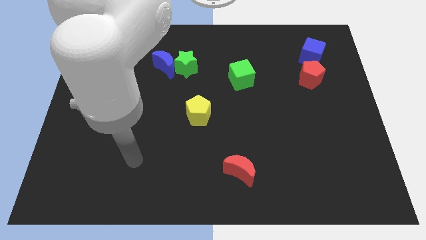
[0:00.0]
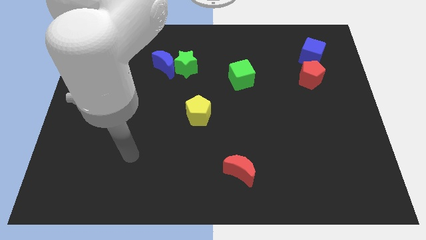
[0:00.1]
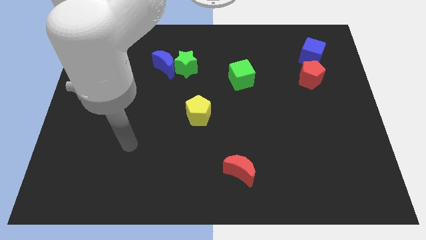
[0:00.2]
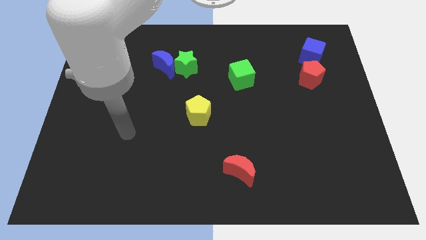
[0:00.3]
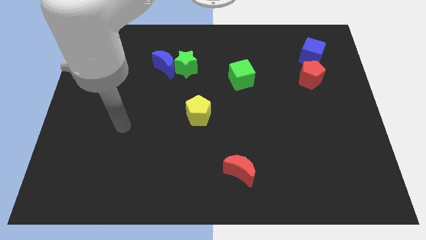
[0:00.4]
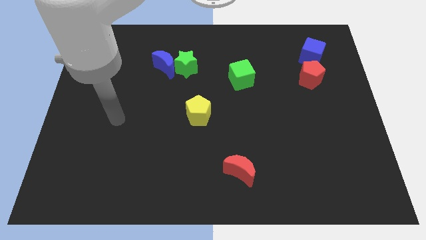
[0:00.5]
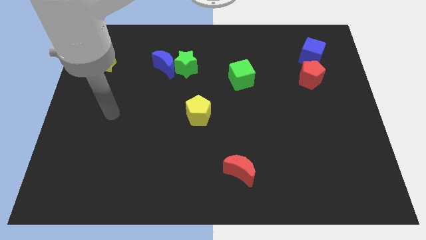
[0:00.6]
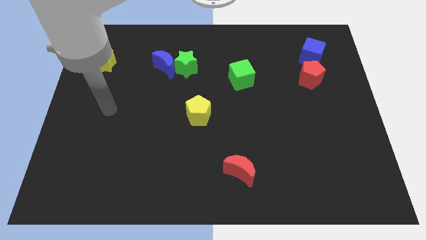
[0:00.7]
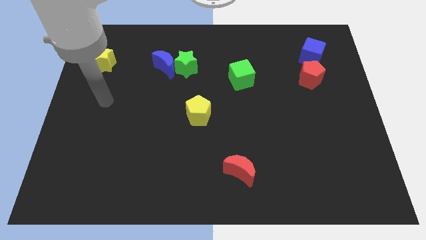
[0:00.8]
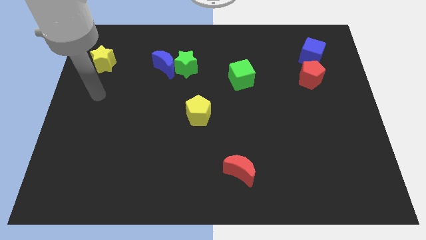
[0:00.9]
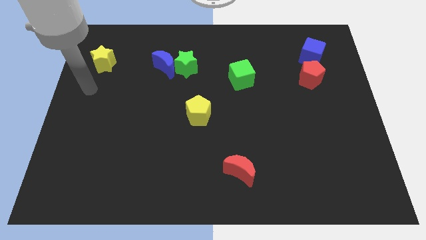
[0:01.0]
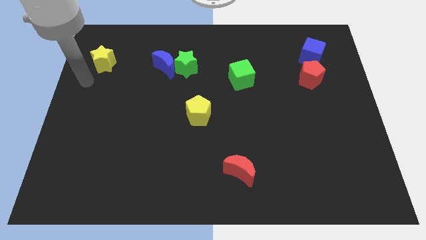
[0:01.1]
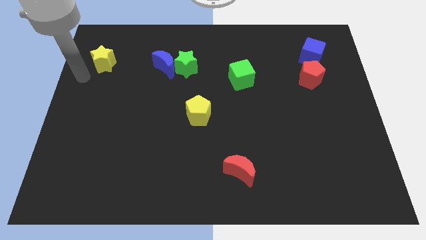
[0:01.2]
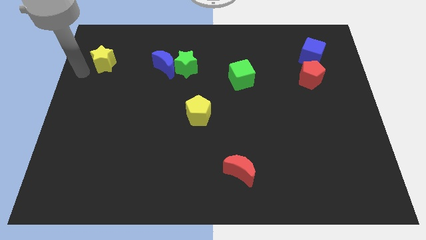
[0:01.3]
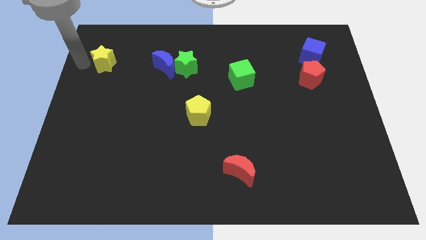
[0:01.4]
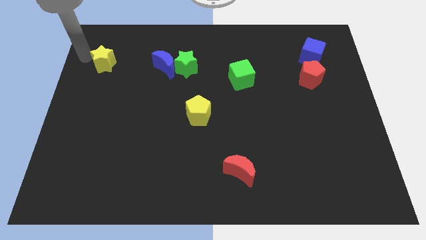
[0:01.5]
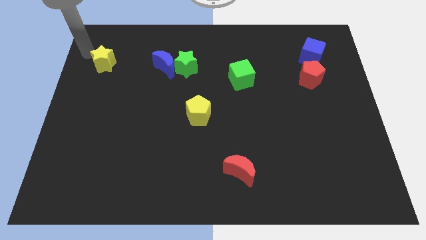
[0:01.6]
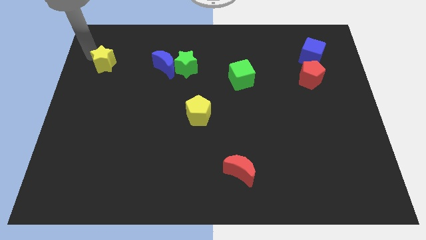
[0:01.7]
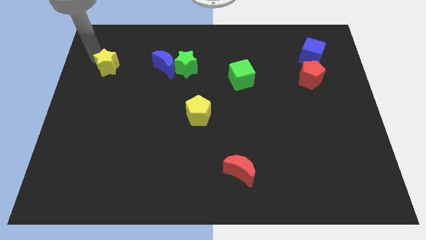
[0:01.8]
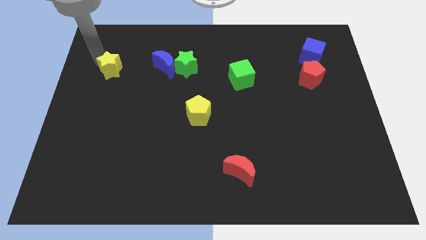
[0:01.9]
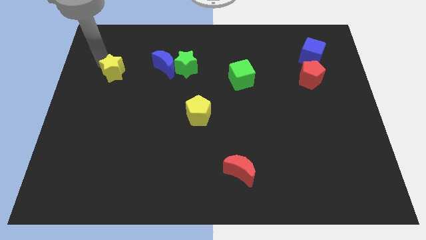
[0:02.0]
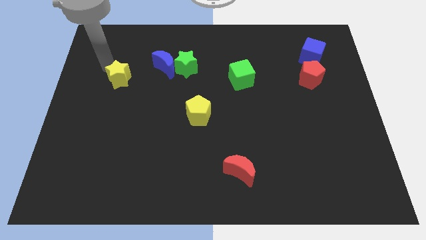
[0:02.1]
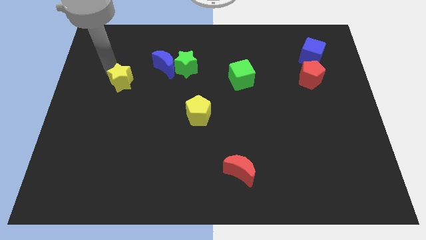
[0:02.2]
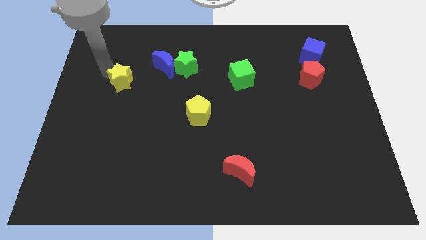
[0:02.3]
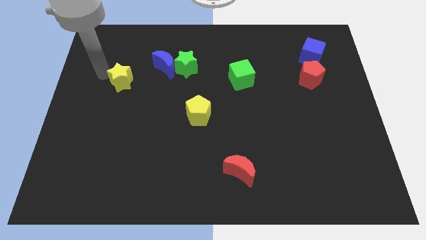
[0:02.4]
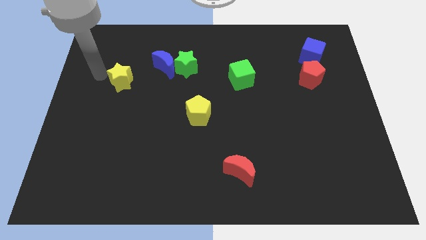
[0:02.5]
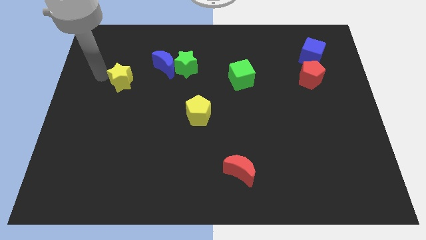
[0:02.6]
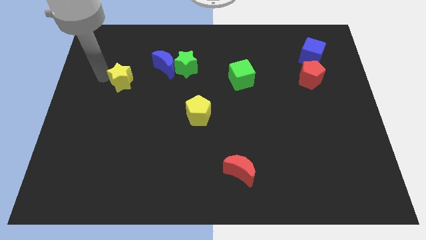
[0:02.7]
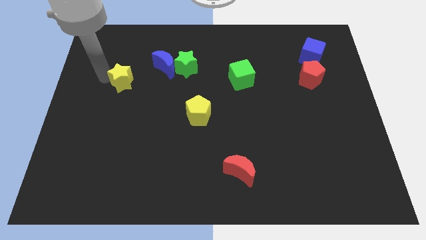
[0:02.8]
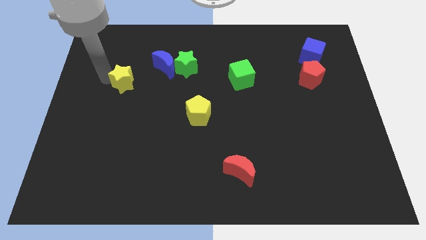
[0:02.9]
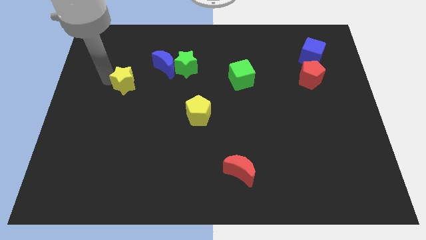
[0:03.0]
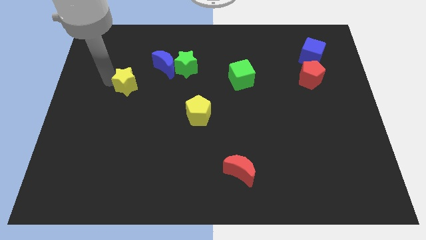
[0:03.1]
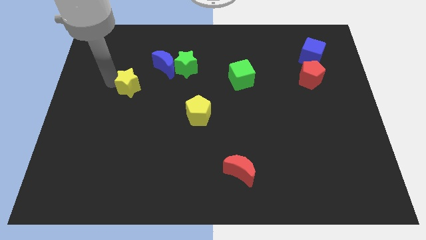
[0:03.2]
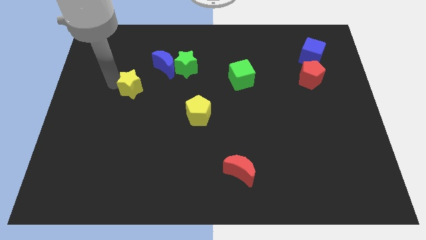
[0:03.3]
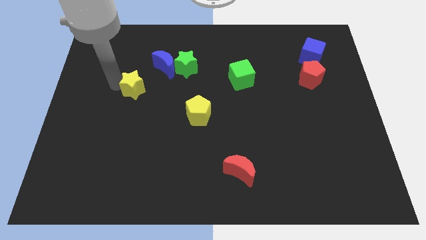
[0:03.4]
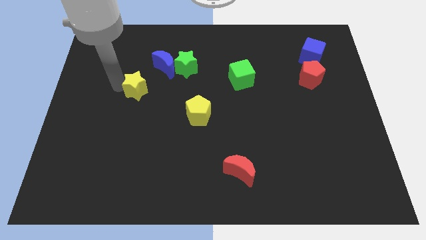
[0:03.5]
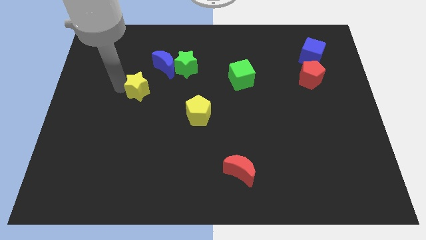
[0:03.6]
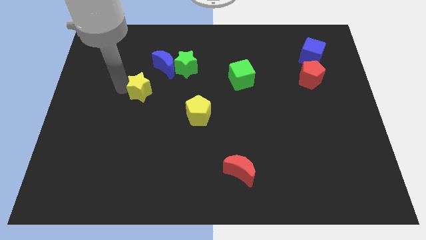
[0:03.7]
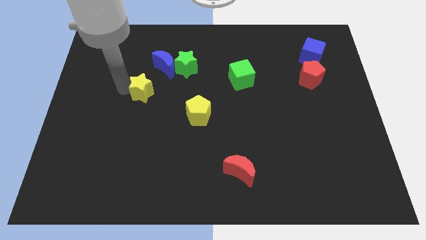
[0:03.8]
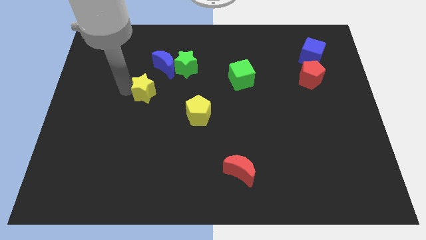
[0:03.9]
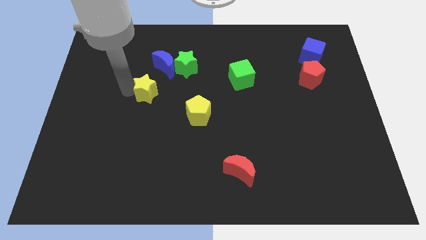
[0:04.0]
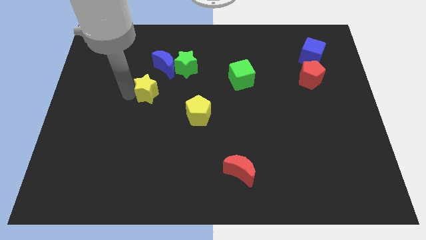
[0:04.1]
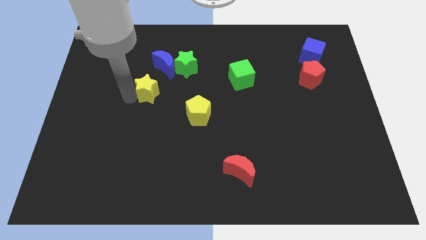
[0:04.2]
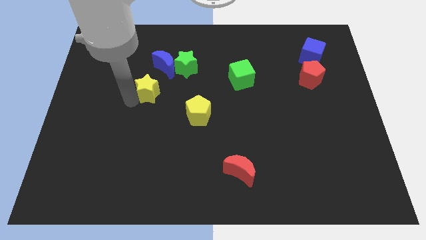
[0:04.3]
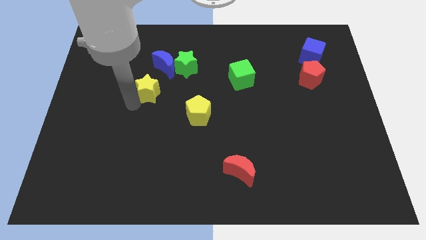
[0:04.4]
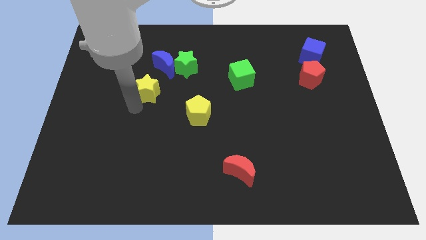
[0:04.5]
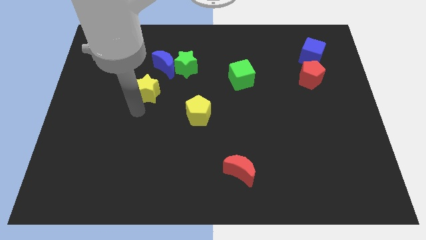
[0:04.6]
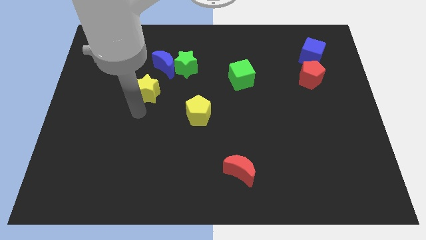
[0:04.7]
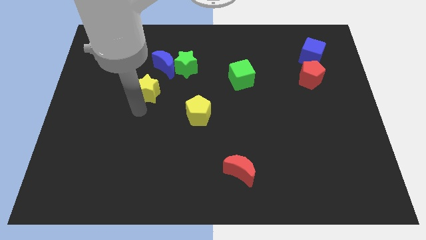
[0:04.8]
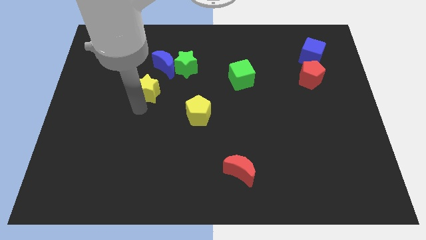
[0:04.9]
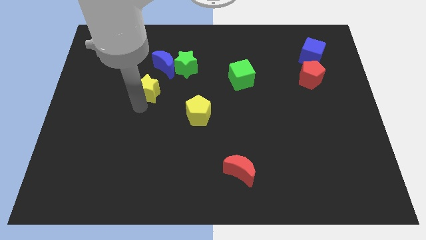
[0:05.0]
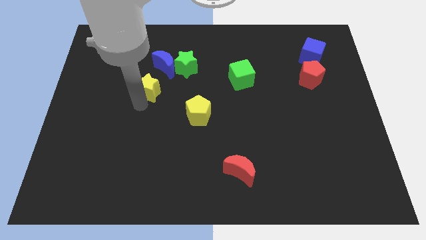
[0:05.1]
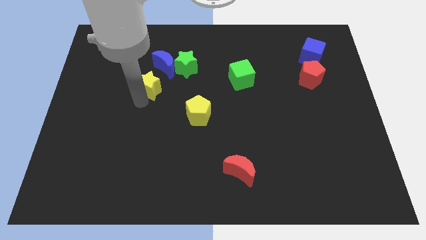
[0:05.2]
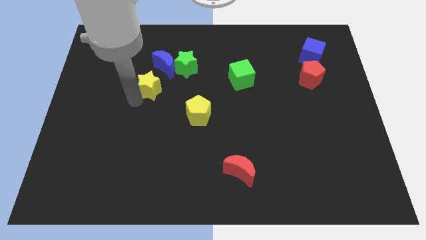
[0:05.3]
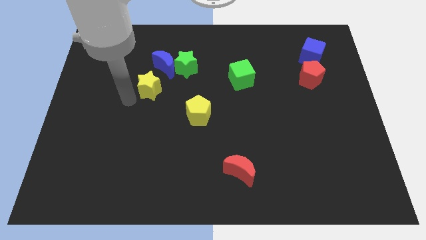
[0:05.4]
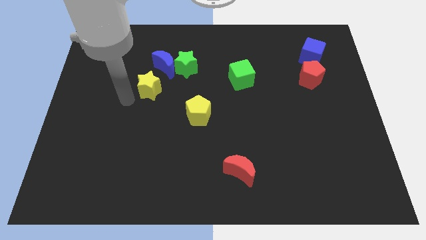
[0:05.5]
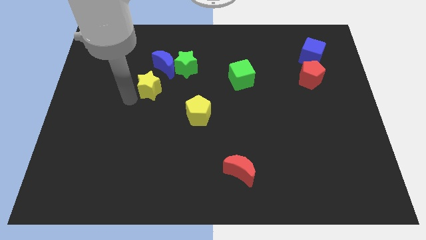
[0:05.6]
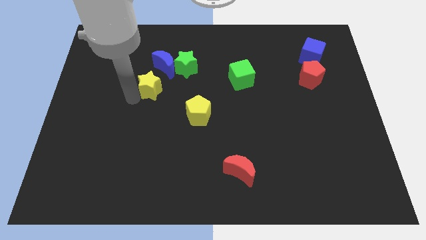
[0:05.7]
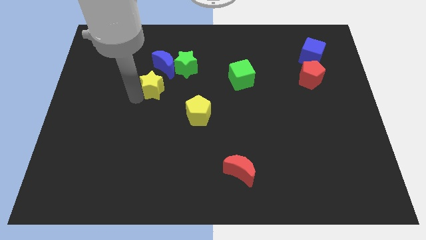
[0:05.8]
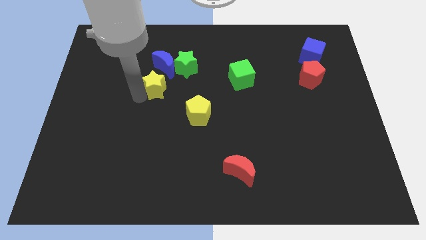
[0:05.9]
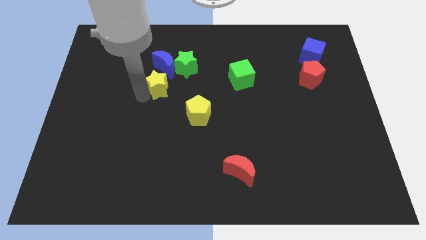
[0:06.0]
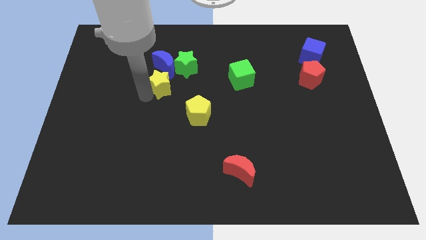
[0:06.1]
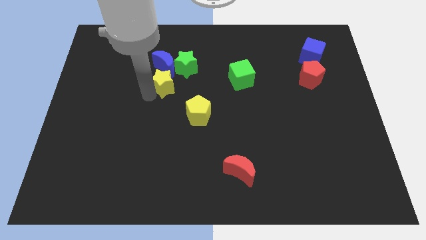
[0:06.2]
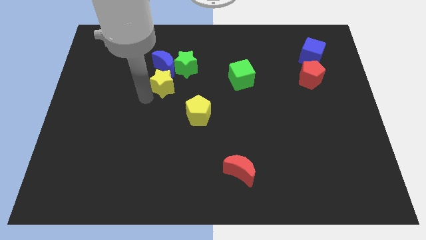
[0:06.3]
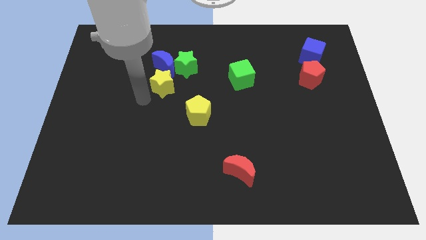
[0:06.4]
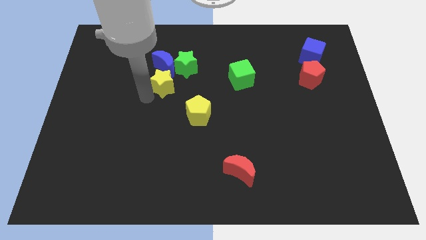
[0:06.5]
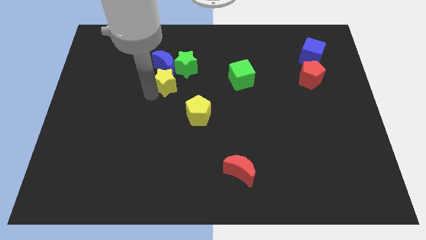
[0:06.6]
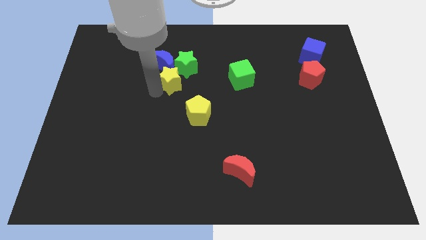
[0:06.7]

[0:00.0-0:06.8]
move the yellow star towards the green star

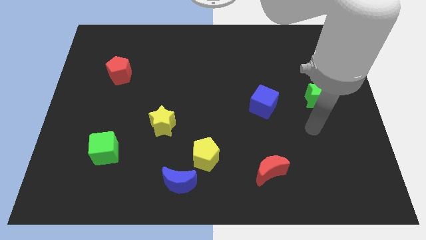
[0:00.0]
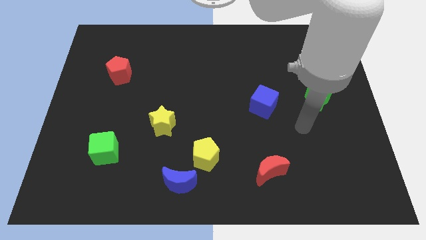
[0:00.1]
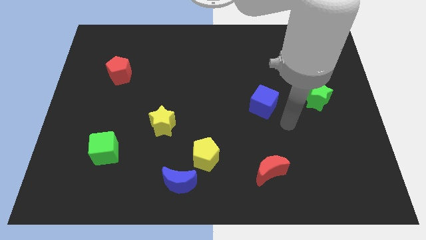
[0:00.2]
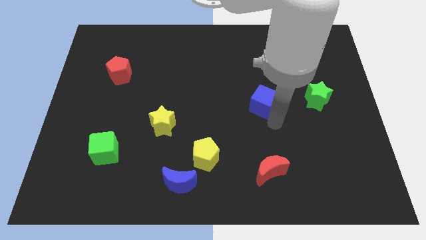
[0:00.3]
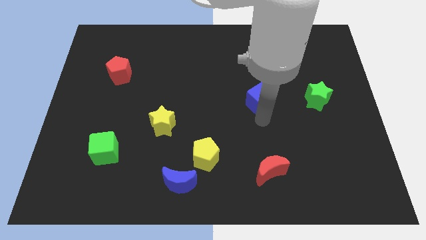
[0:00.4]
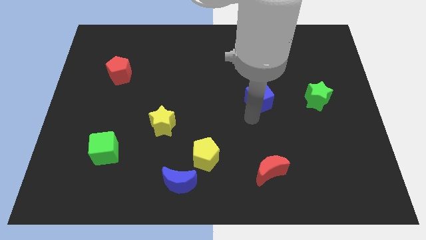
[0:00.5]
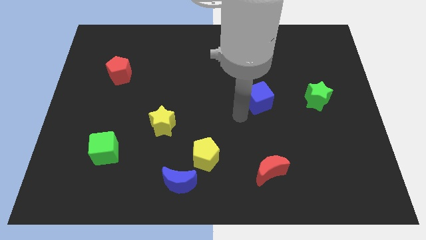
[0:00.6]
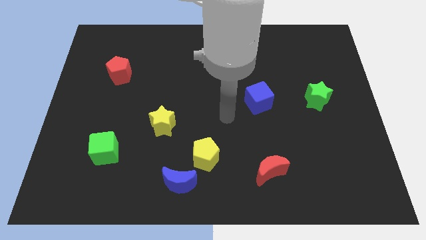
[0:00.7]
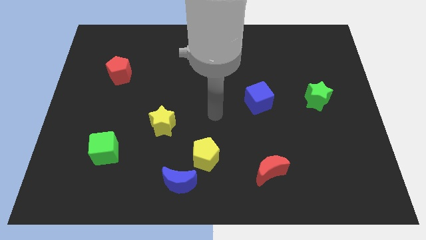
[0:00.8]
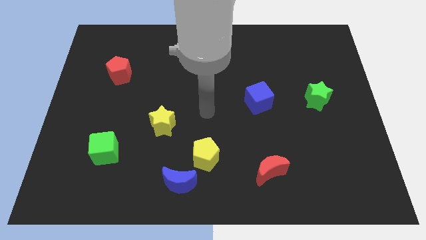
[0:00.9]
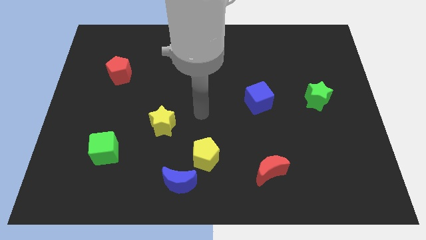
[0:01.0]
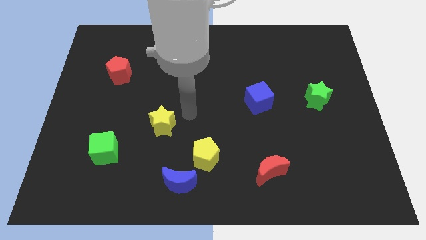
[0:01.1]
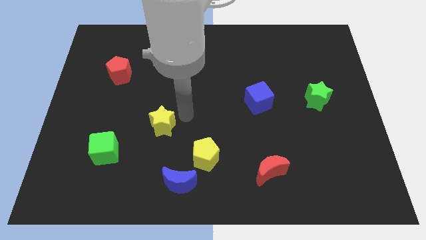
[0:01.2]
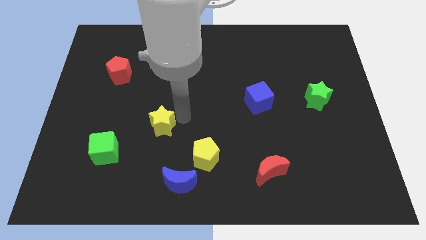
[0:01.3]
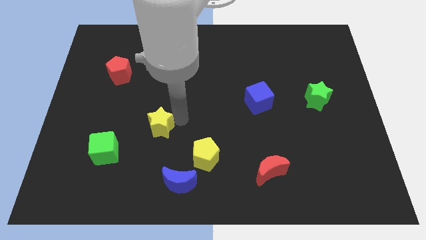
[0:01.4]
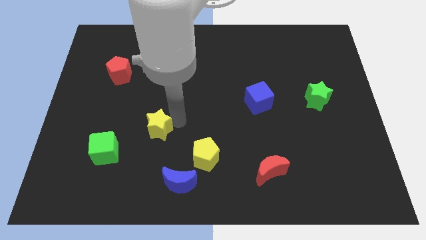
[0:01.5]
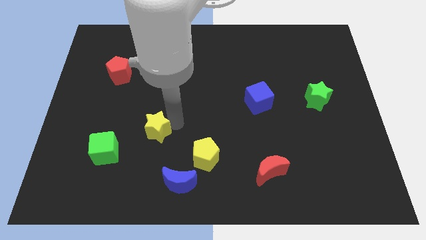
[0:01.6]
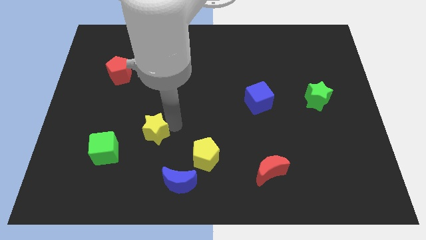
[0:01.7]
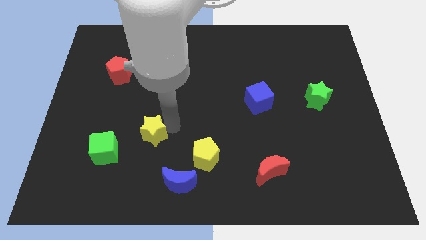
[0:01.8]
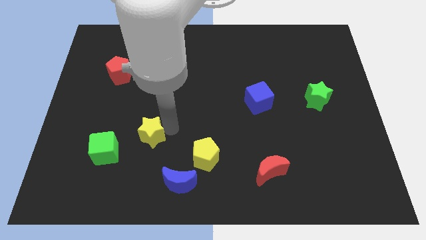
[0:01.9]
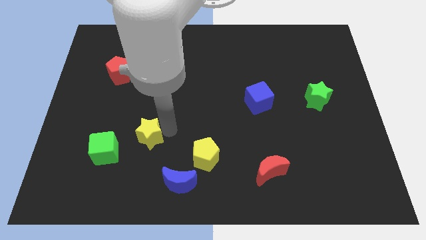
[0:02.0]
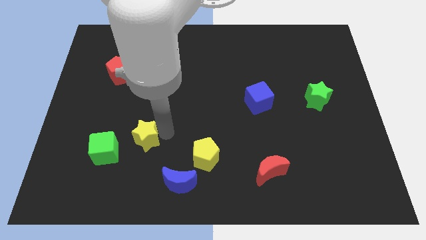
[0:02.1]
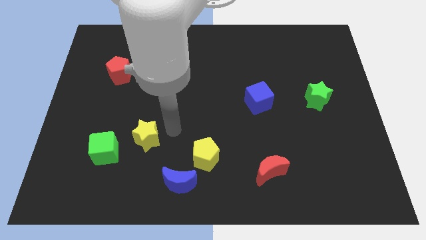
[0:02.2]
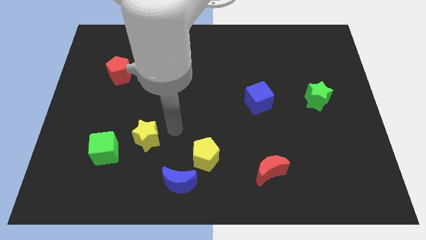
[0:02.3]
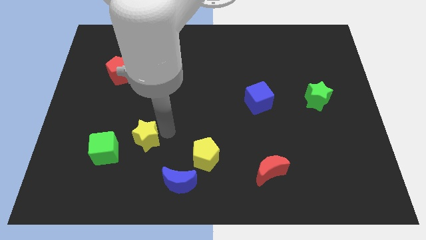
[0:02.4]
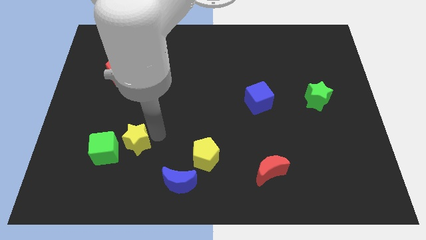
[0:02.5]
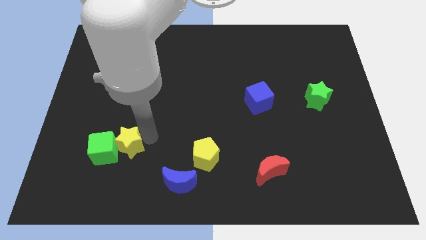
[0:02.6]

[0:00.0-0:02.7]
slide the yellow star close to the green cube
